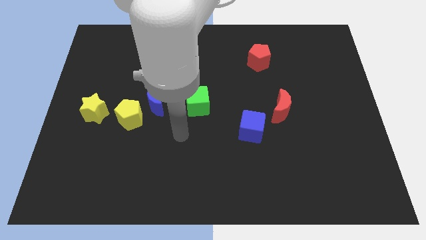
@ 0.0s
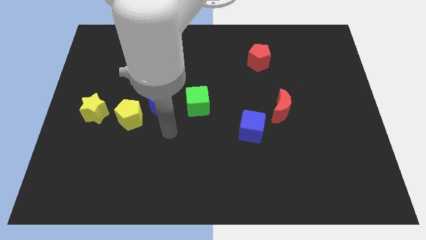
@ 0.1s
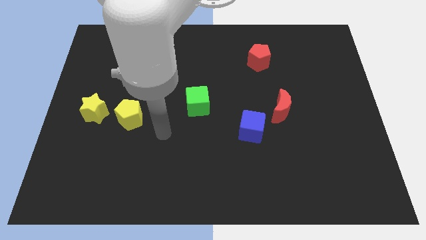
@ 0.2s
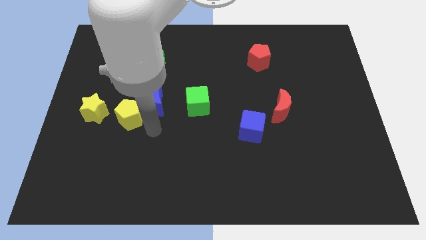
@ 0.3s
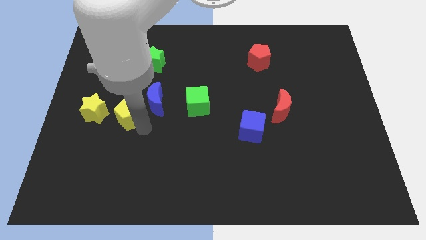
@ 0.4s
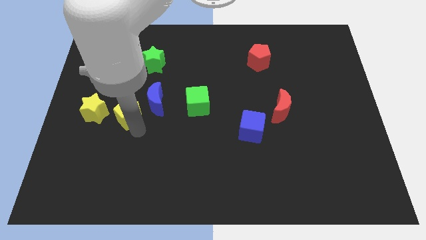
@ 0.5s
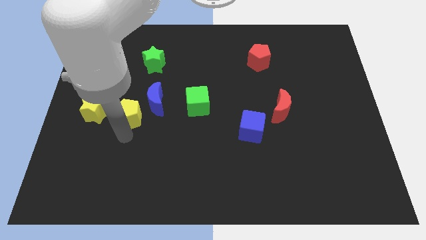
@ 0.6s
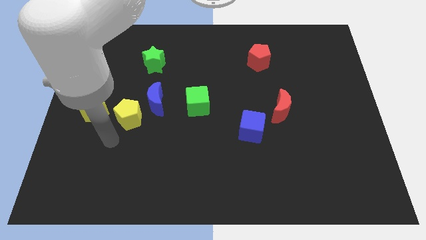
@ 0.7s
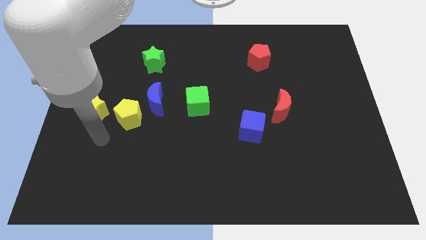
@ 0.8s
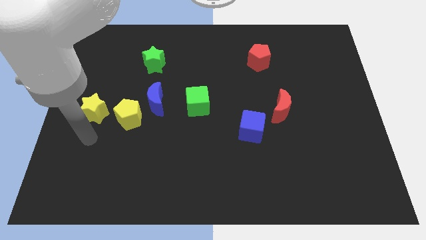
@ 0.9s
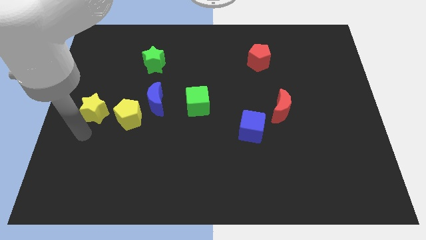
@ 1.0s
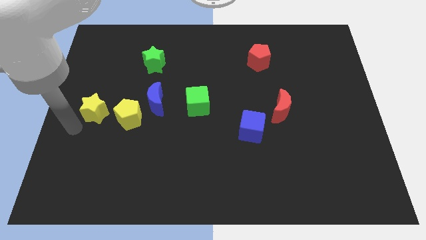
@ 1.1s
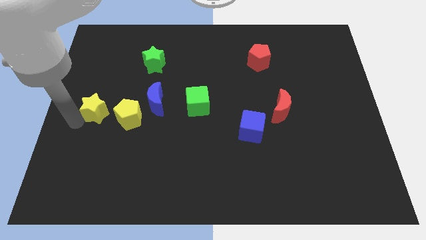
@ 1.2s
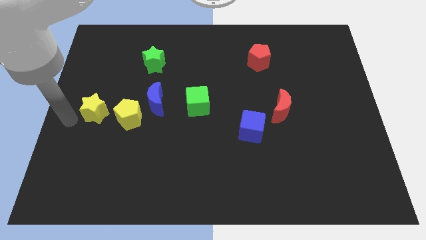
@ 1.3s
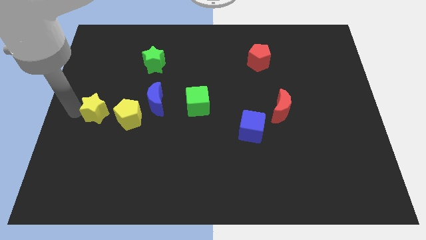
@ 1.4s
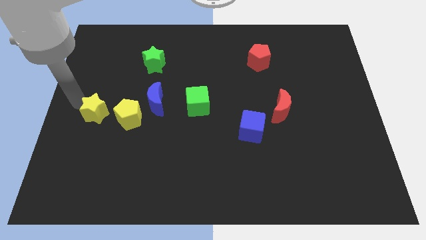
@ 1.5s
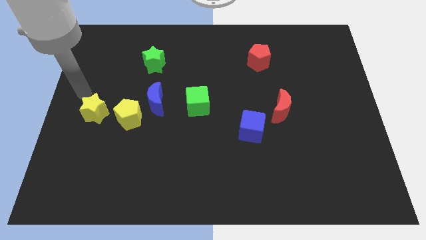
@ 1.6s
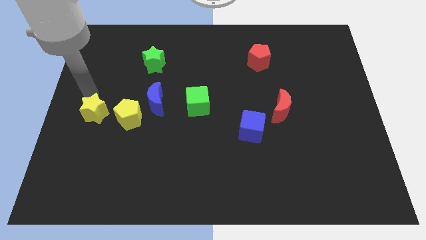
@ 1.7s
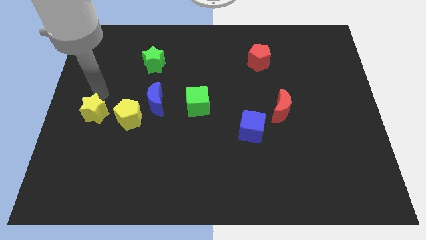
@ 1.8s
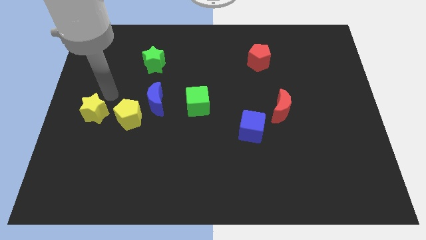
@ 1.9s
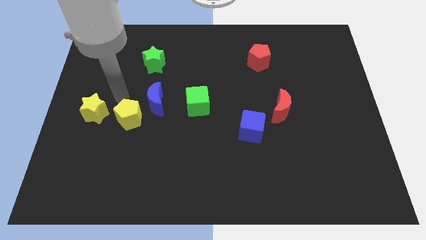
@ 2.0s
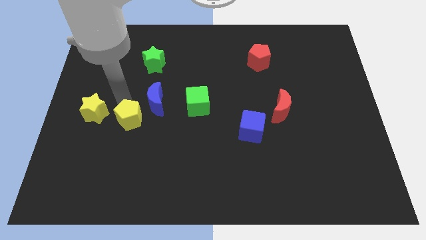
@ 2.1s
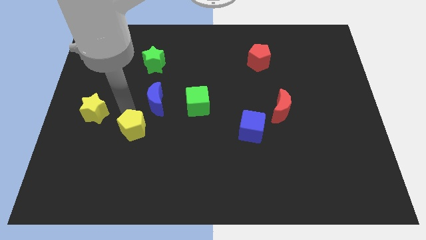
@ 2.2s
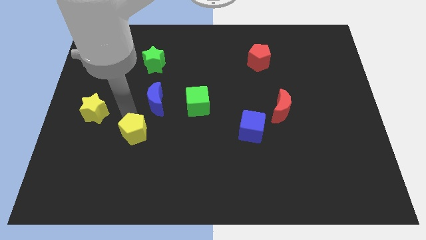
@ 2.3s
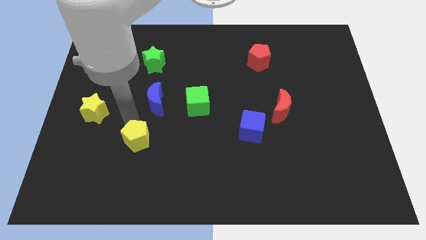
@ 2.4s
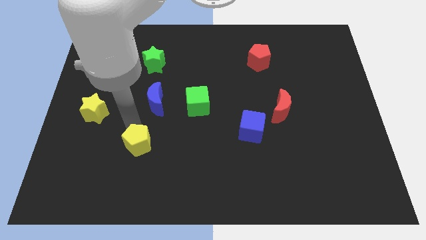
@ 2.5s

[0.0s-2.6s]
pull the yellow pentagon apart from the blue moon and yellow star

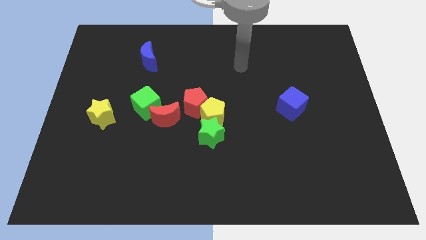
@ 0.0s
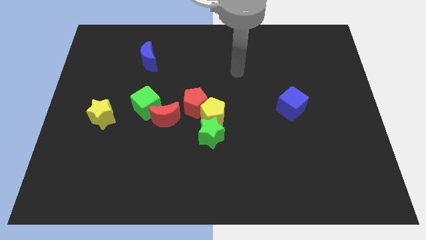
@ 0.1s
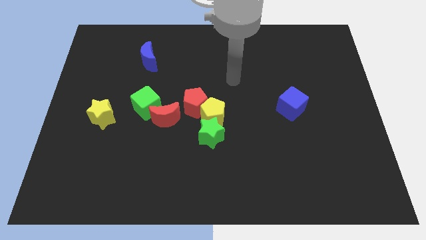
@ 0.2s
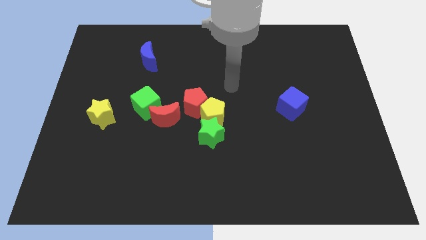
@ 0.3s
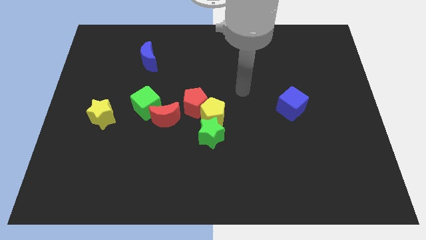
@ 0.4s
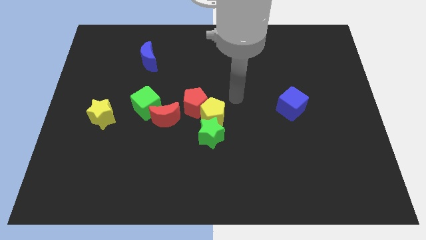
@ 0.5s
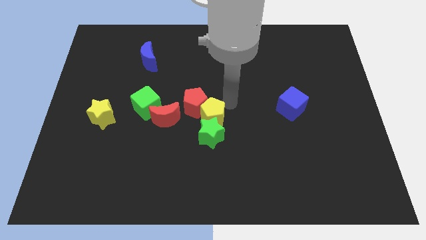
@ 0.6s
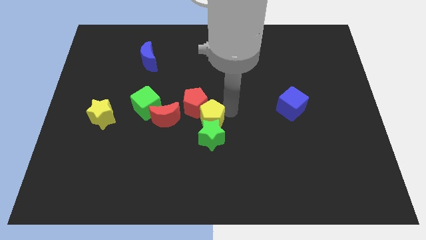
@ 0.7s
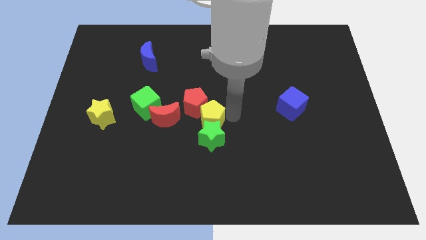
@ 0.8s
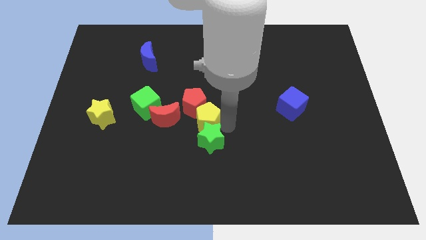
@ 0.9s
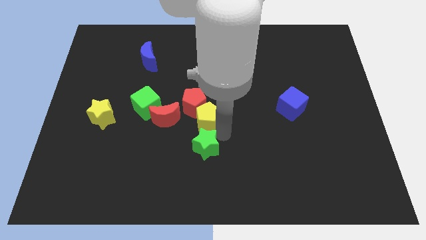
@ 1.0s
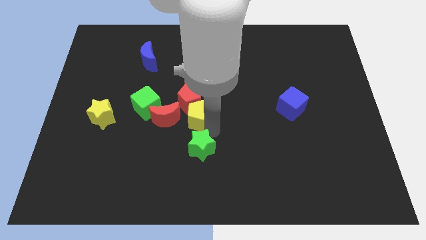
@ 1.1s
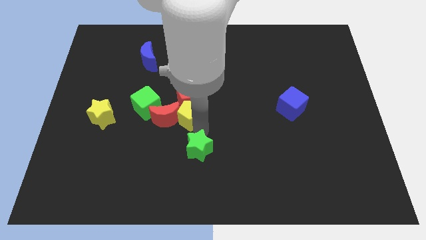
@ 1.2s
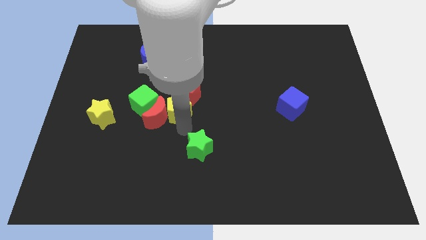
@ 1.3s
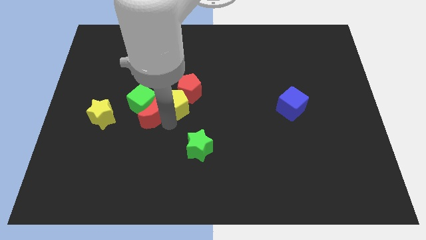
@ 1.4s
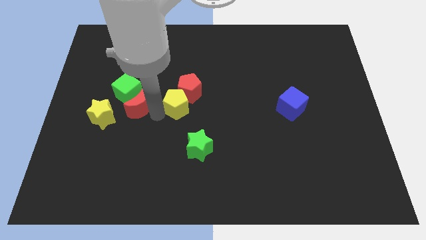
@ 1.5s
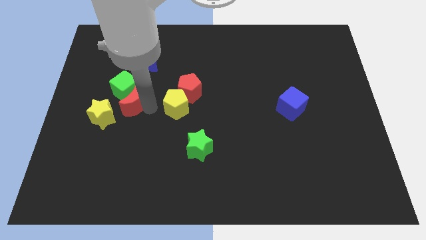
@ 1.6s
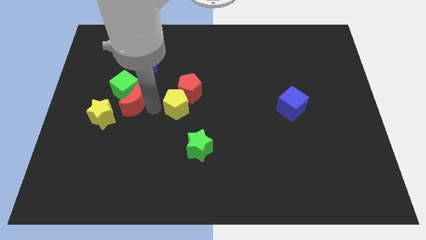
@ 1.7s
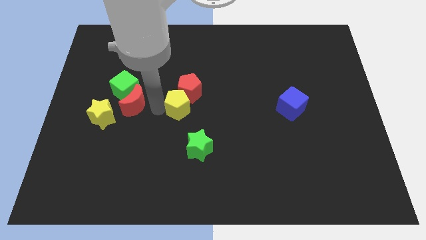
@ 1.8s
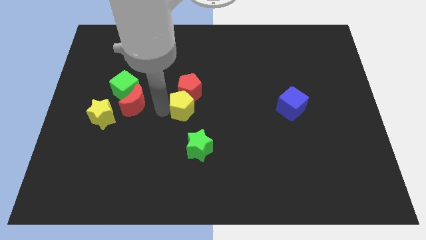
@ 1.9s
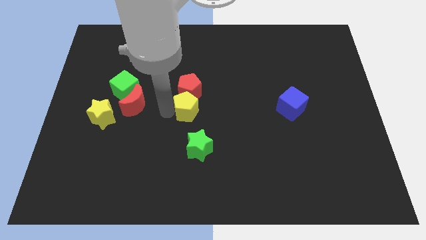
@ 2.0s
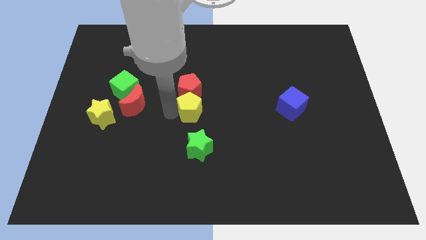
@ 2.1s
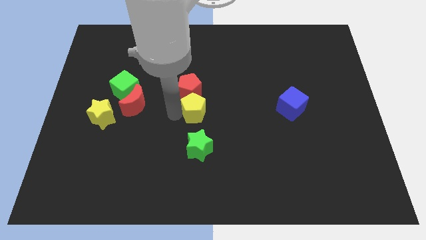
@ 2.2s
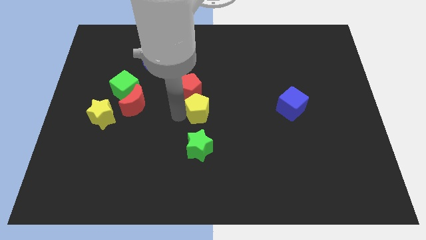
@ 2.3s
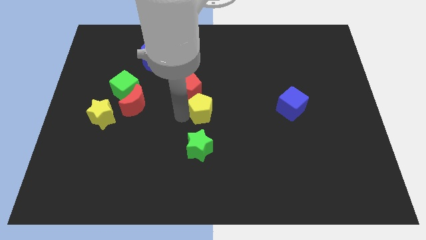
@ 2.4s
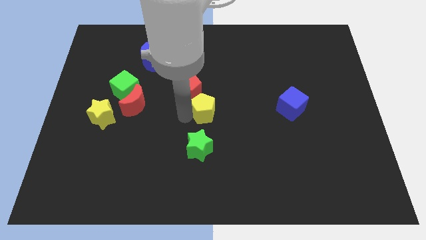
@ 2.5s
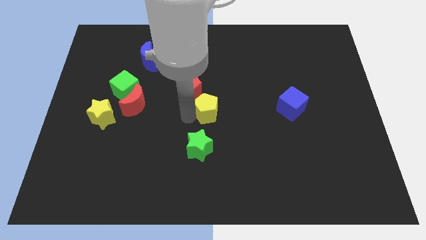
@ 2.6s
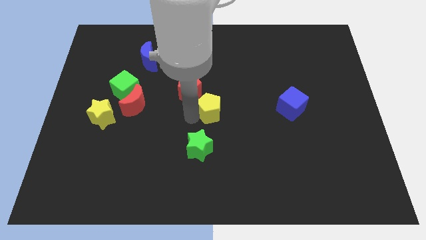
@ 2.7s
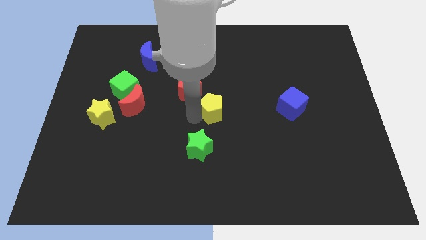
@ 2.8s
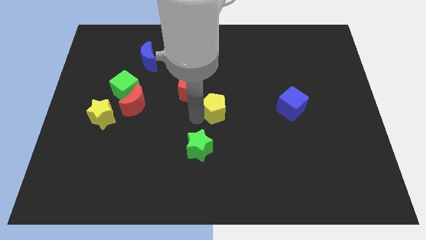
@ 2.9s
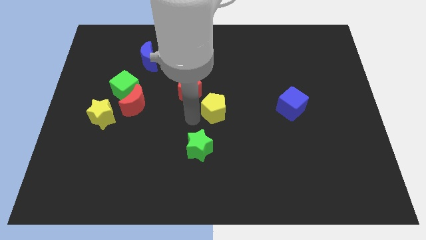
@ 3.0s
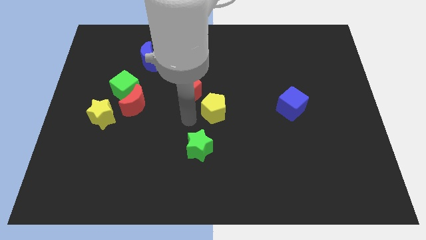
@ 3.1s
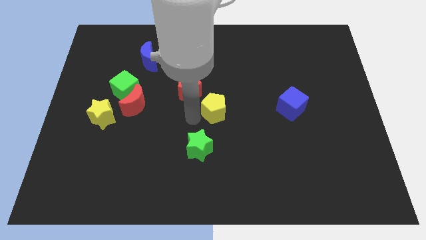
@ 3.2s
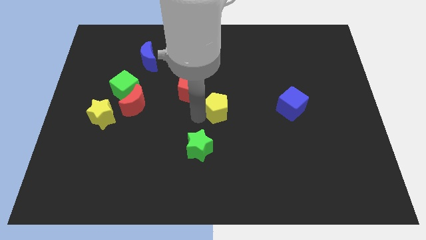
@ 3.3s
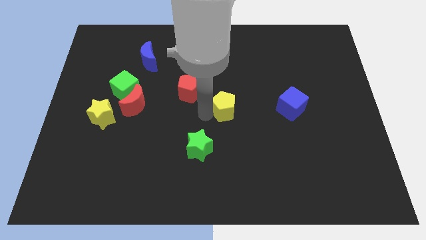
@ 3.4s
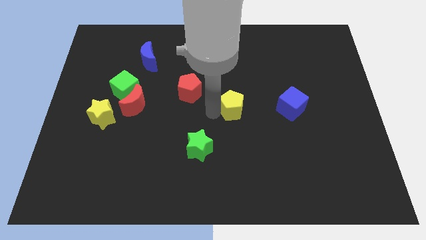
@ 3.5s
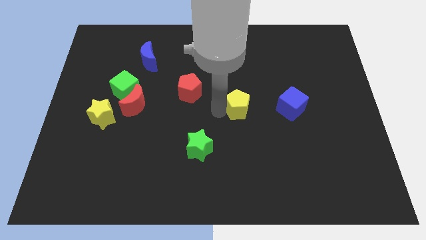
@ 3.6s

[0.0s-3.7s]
separate the yellow pentagon from the red pentagon and green star

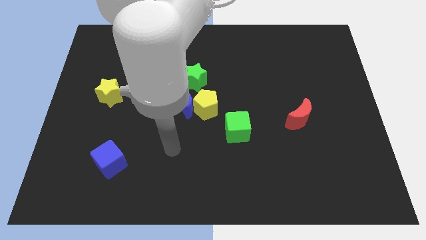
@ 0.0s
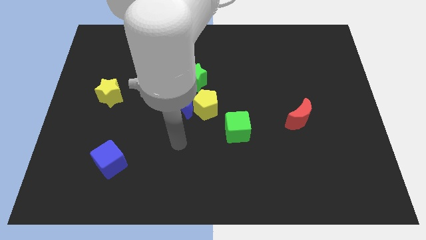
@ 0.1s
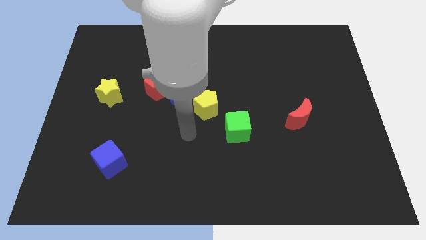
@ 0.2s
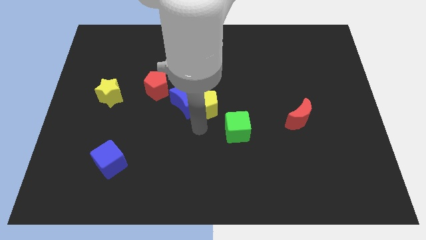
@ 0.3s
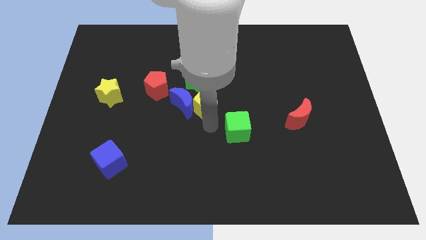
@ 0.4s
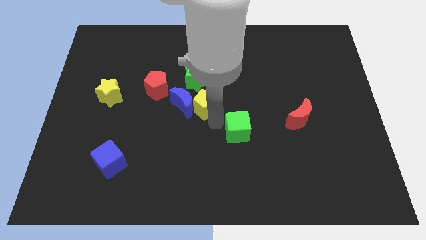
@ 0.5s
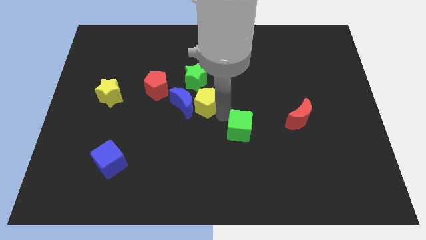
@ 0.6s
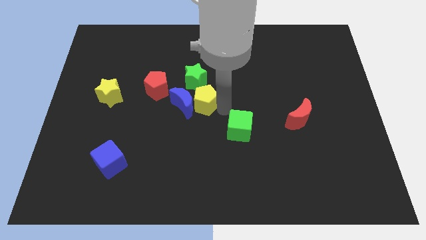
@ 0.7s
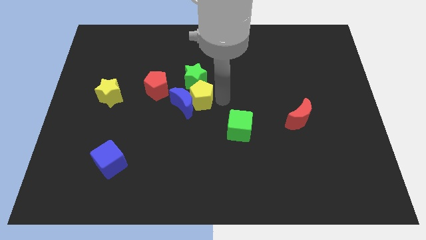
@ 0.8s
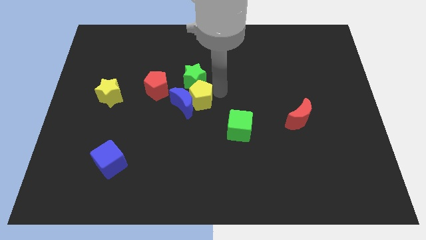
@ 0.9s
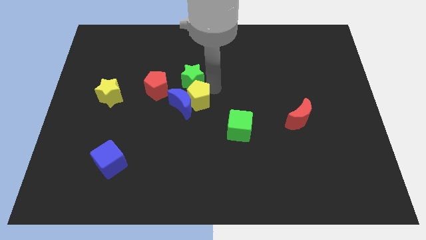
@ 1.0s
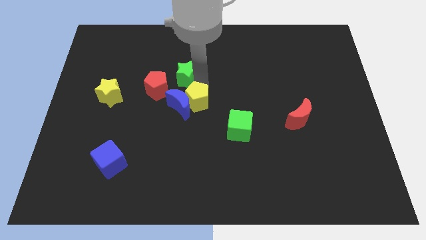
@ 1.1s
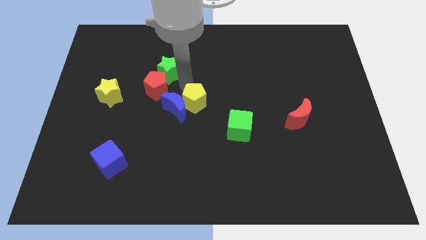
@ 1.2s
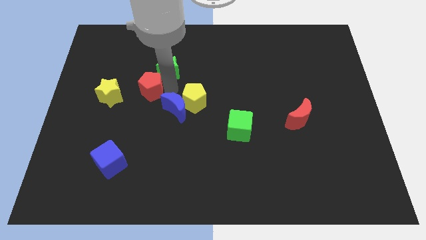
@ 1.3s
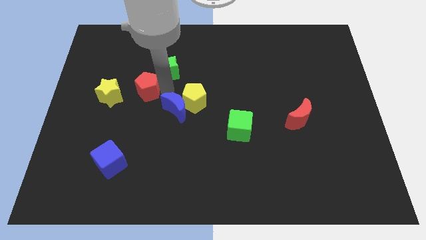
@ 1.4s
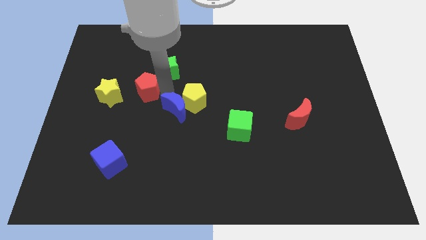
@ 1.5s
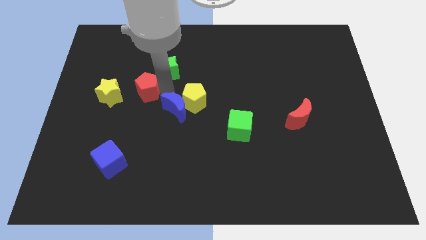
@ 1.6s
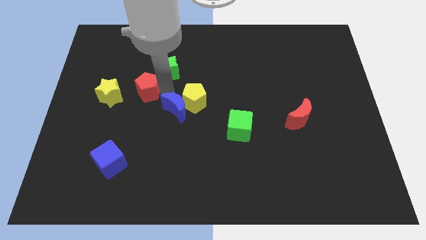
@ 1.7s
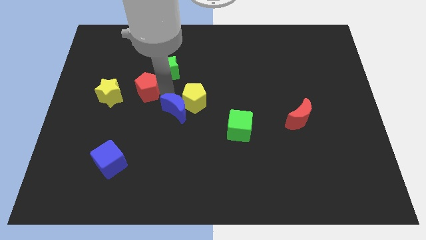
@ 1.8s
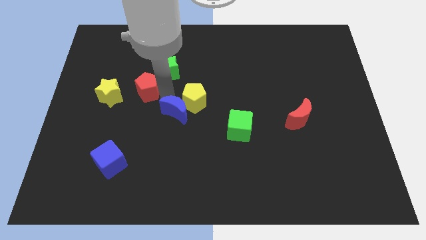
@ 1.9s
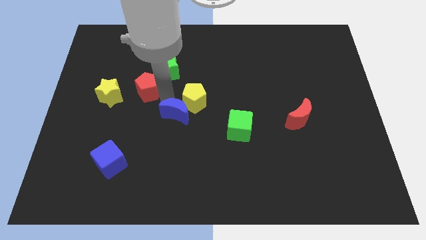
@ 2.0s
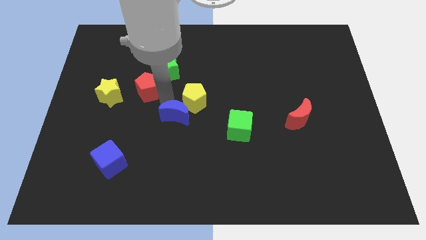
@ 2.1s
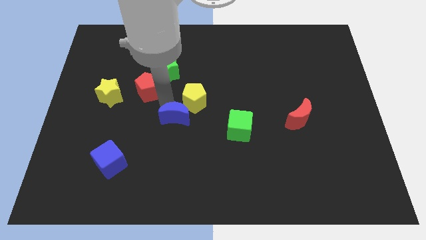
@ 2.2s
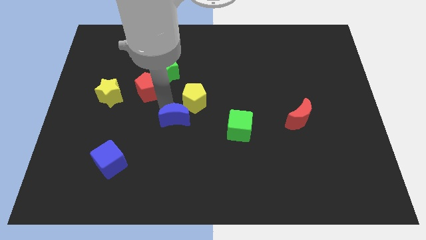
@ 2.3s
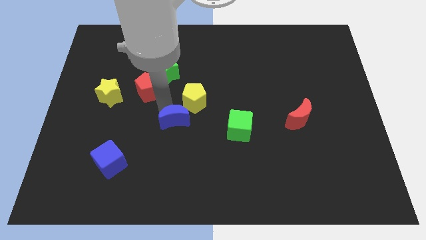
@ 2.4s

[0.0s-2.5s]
move the blue moon away from the yellow pentagon, green star, and red pentagon

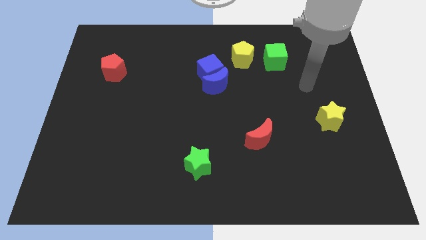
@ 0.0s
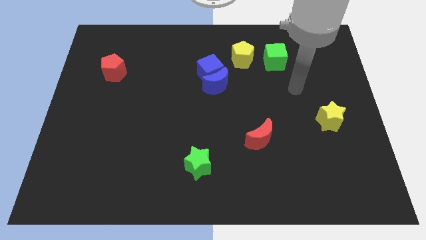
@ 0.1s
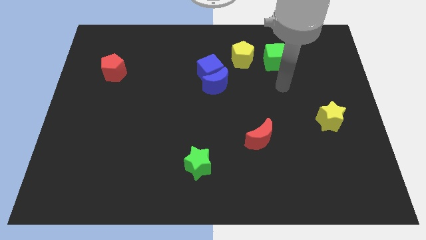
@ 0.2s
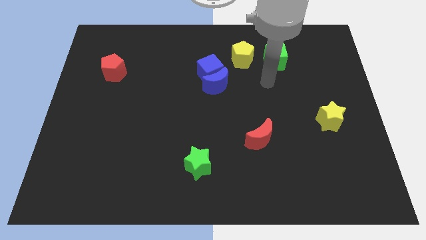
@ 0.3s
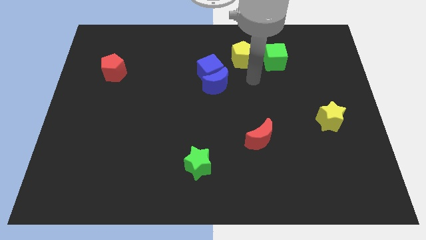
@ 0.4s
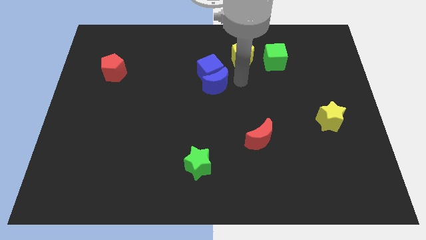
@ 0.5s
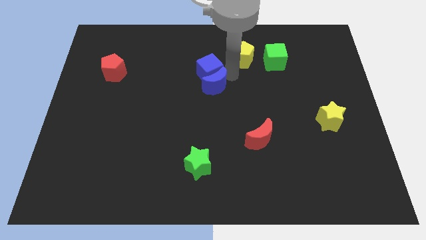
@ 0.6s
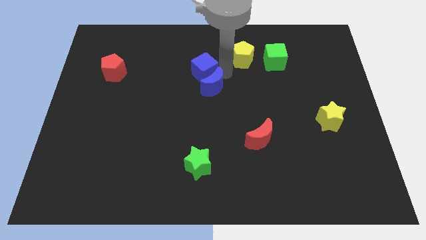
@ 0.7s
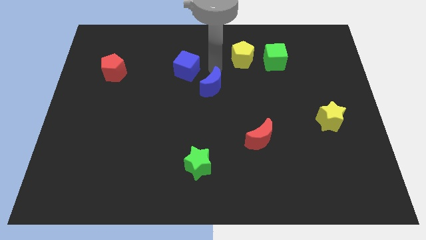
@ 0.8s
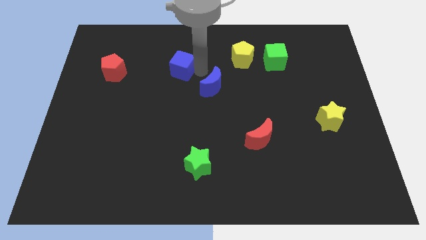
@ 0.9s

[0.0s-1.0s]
pull the blue moon apart from the blue cube
